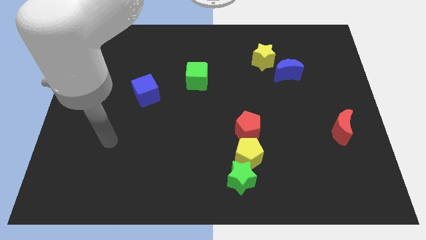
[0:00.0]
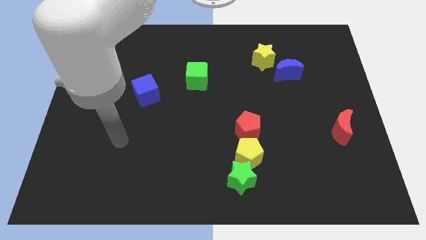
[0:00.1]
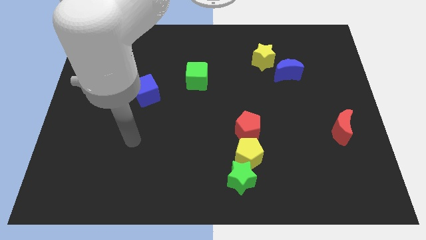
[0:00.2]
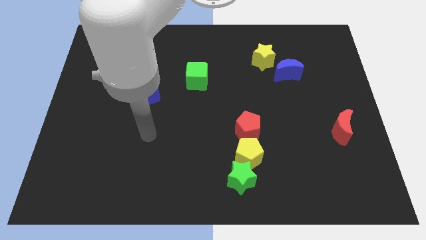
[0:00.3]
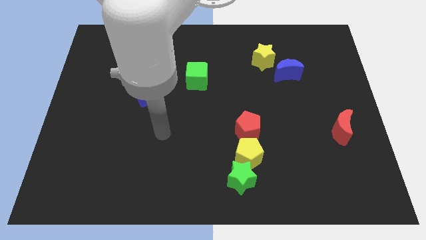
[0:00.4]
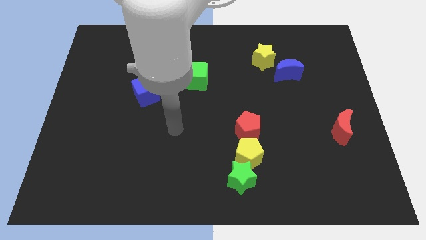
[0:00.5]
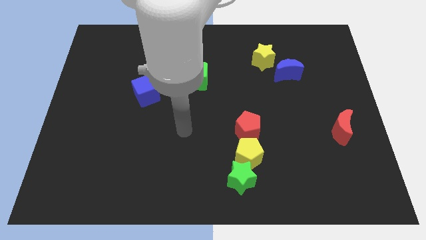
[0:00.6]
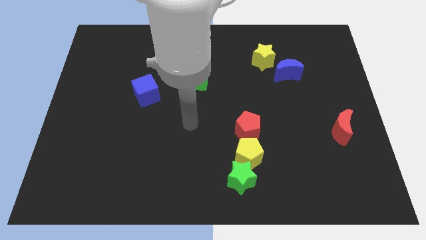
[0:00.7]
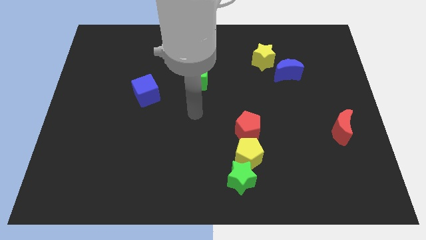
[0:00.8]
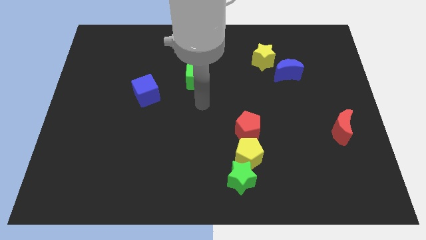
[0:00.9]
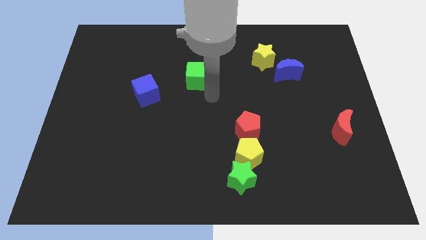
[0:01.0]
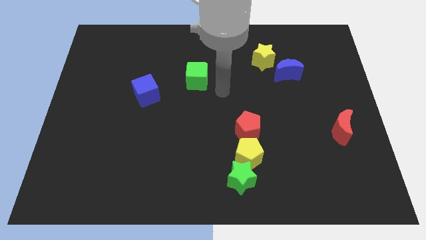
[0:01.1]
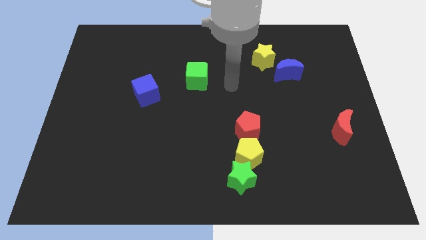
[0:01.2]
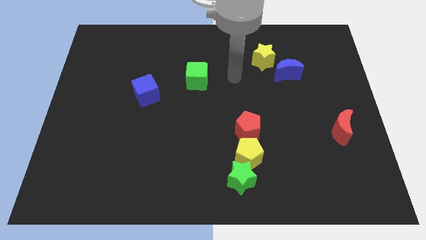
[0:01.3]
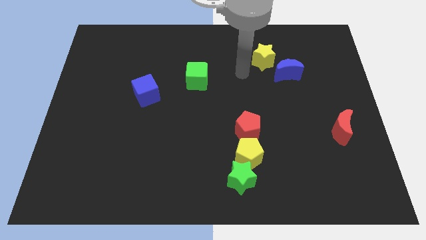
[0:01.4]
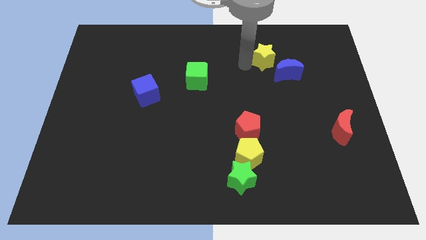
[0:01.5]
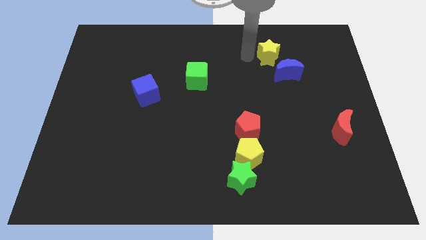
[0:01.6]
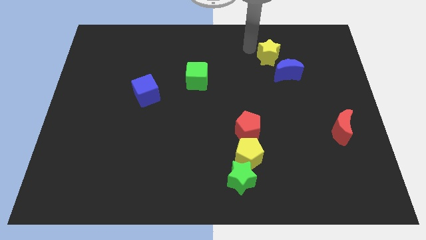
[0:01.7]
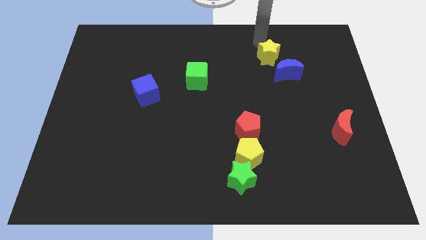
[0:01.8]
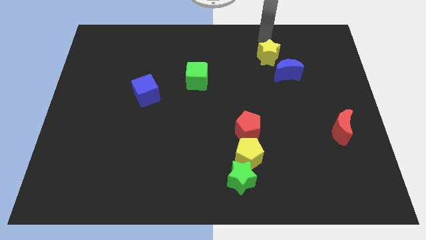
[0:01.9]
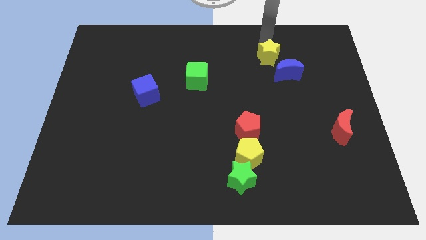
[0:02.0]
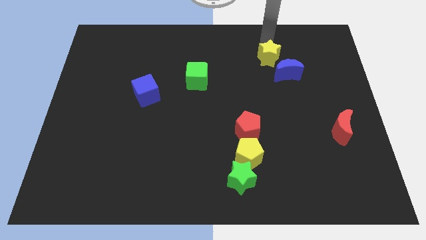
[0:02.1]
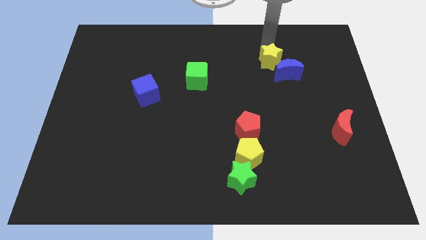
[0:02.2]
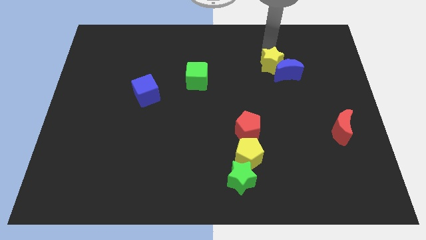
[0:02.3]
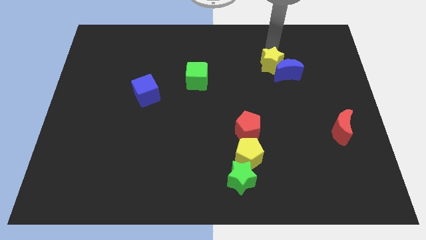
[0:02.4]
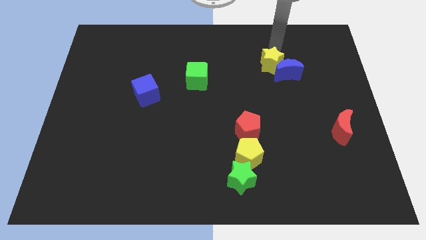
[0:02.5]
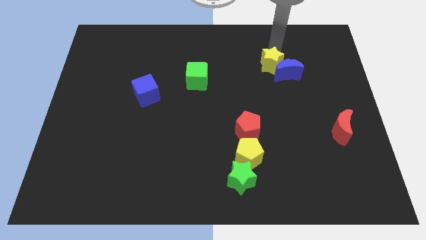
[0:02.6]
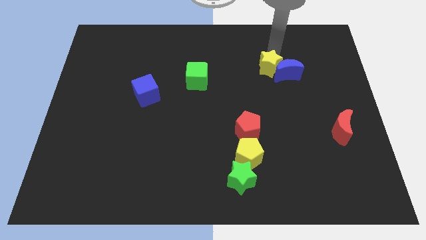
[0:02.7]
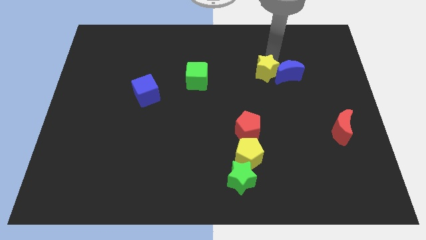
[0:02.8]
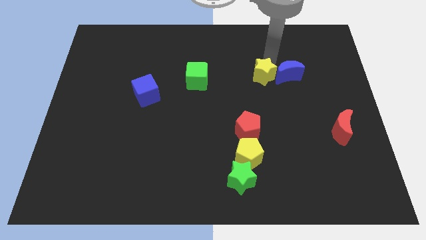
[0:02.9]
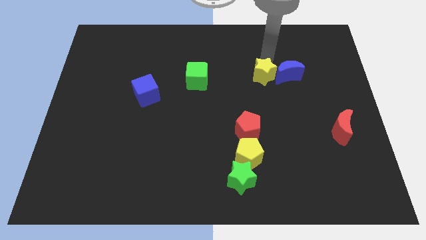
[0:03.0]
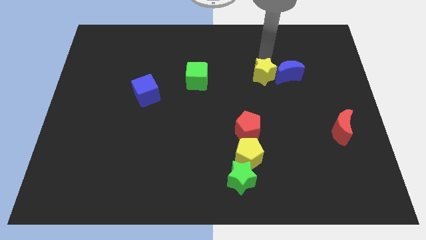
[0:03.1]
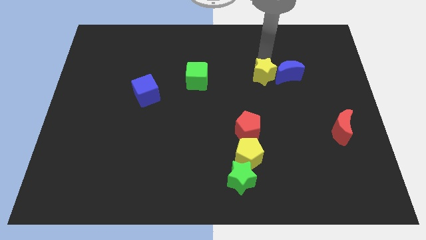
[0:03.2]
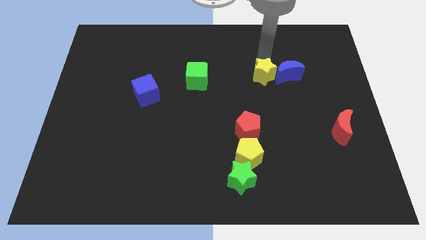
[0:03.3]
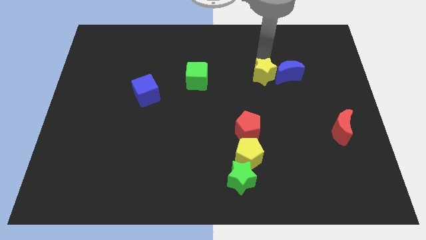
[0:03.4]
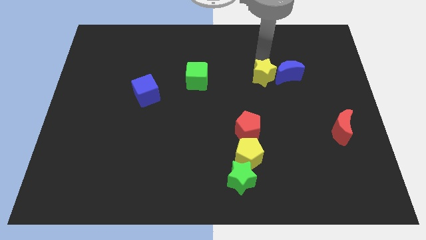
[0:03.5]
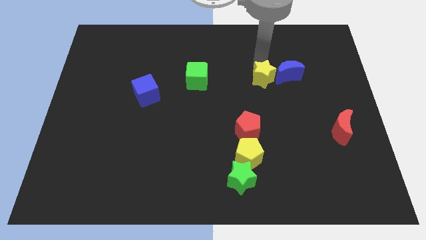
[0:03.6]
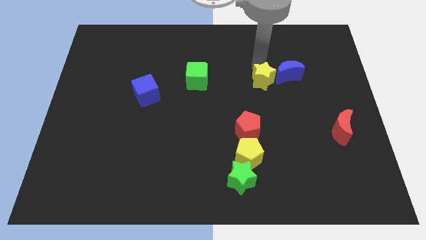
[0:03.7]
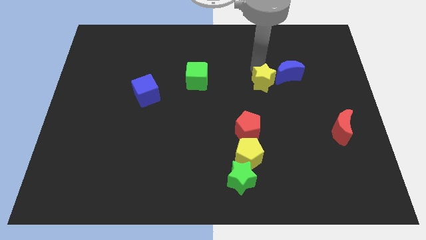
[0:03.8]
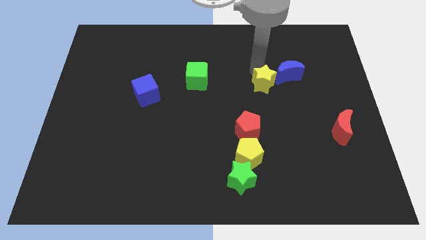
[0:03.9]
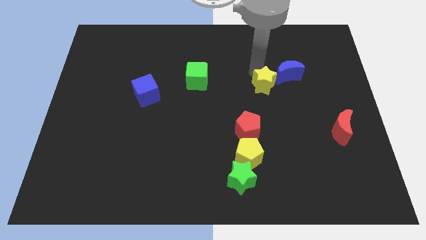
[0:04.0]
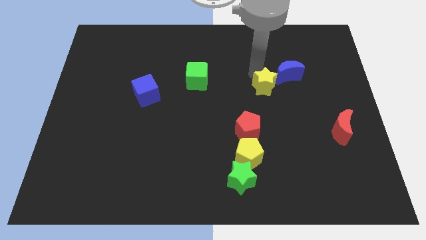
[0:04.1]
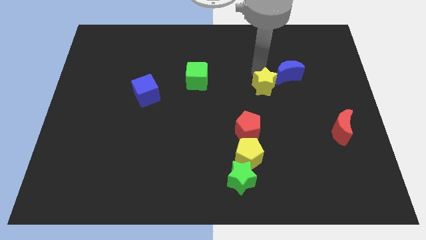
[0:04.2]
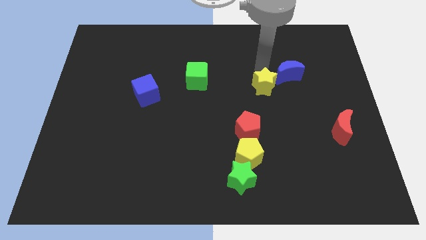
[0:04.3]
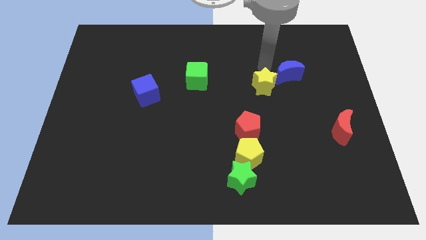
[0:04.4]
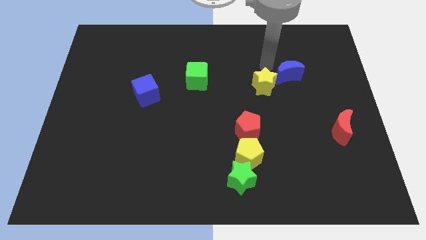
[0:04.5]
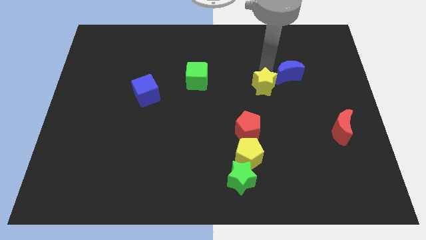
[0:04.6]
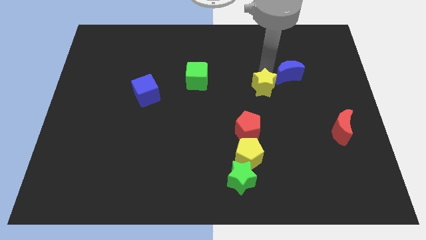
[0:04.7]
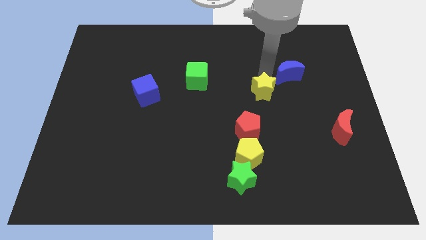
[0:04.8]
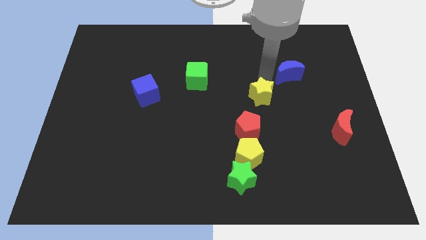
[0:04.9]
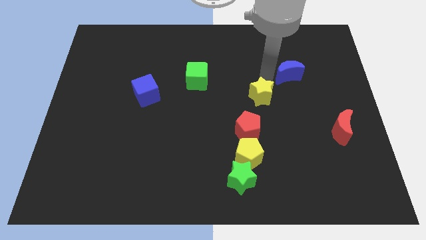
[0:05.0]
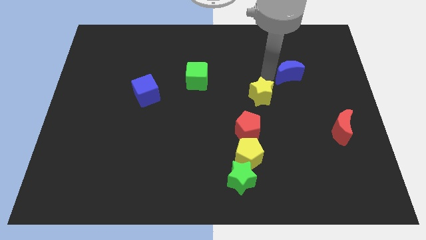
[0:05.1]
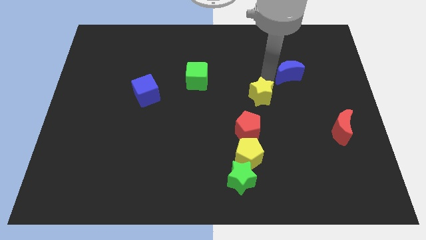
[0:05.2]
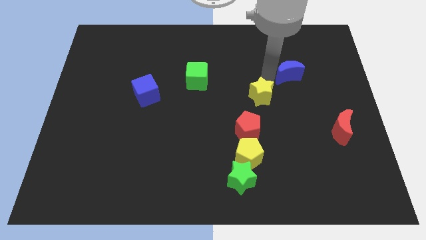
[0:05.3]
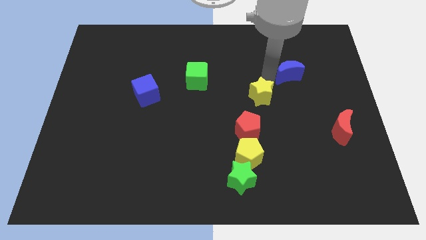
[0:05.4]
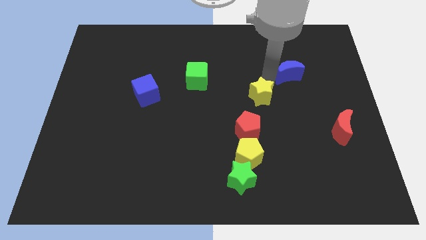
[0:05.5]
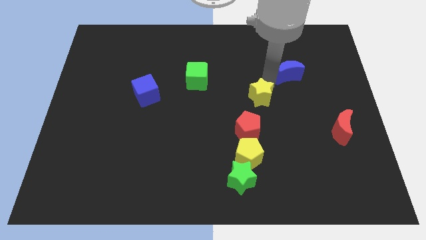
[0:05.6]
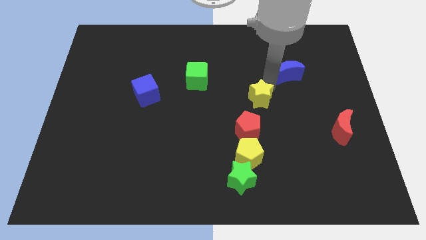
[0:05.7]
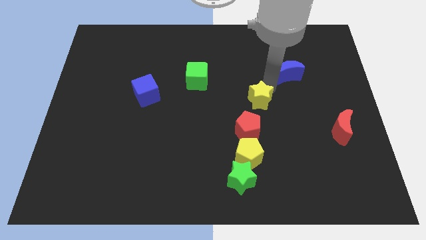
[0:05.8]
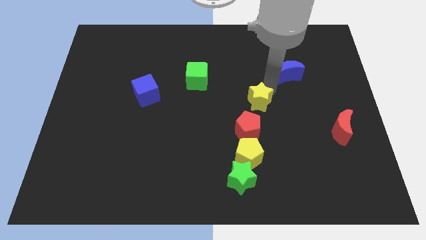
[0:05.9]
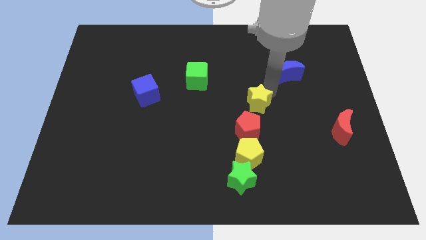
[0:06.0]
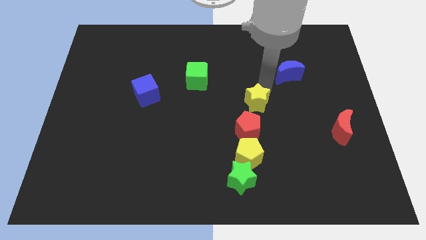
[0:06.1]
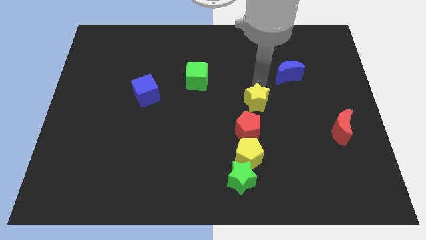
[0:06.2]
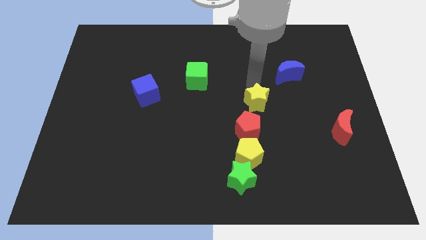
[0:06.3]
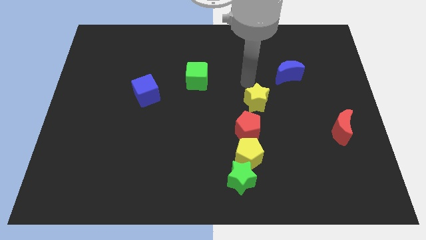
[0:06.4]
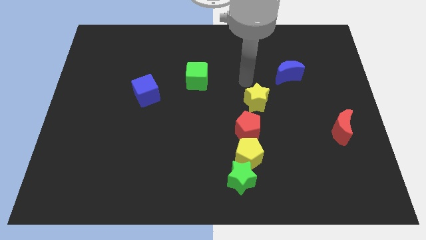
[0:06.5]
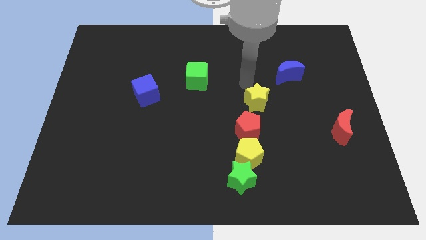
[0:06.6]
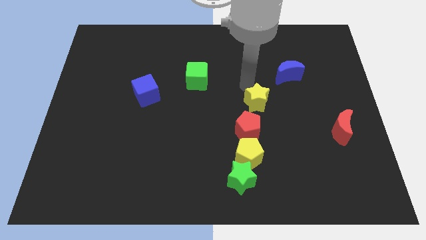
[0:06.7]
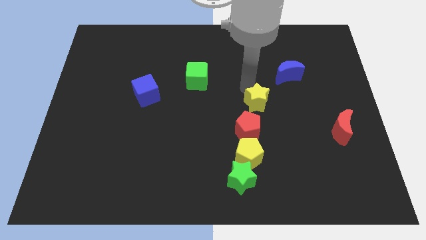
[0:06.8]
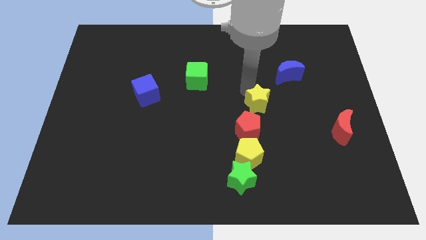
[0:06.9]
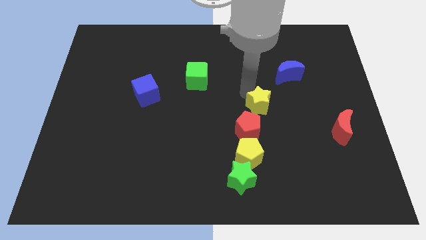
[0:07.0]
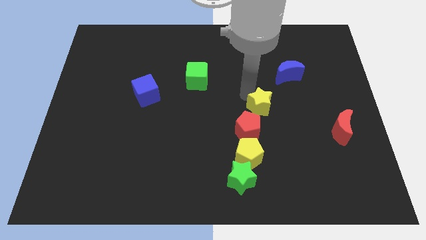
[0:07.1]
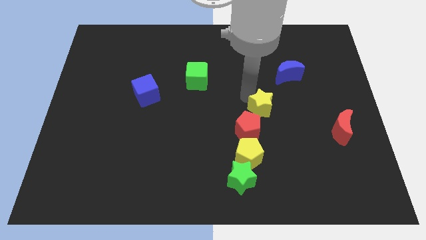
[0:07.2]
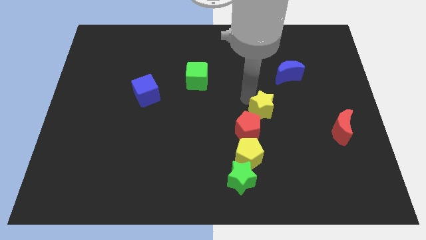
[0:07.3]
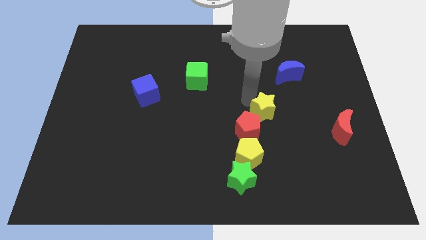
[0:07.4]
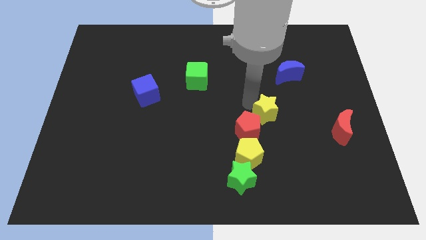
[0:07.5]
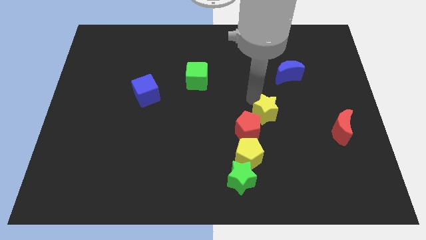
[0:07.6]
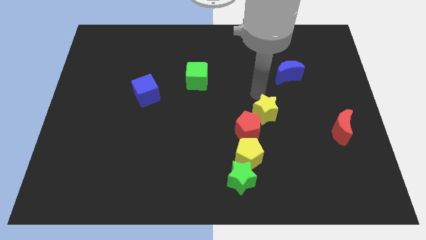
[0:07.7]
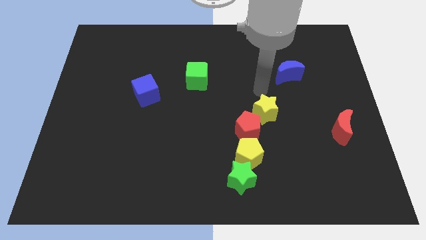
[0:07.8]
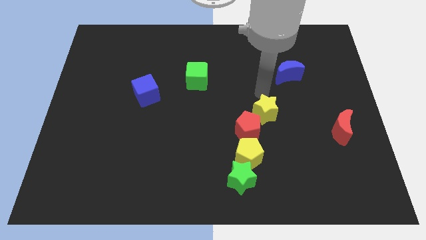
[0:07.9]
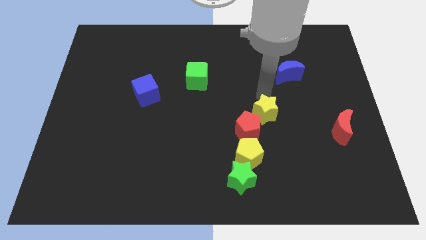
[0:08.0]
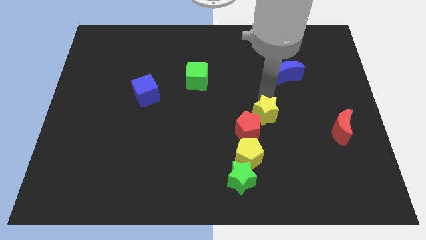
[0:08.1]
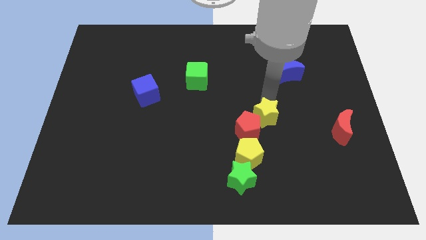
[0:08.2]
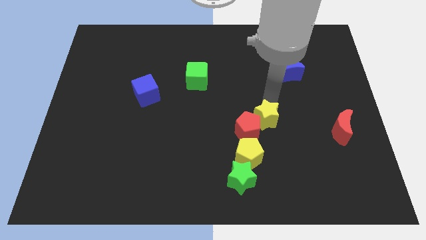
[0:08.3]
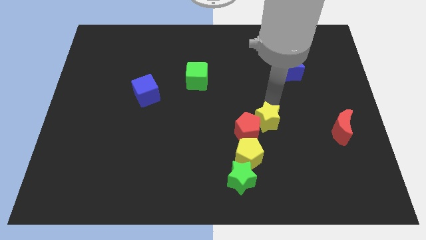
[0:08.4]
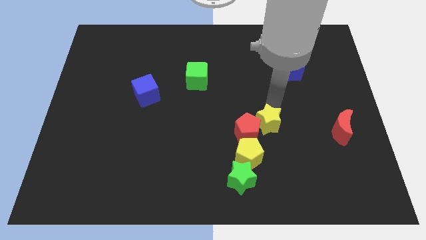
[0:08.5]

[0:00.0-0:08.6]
slide the yellow star down
